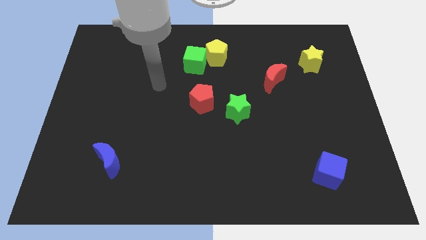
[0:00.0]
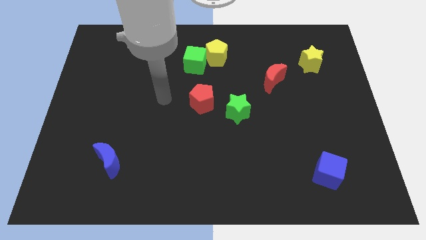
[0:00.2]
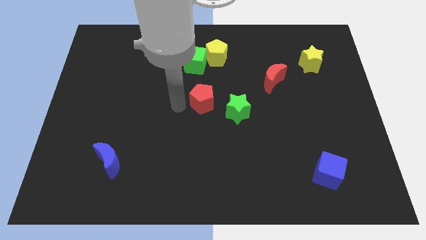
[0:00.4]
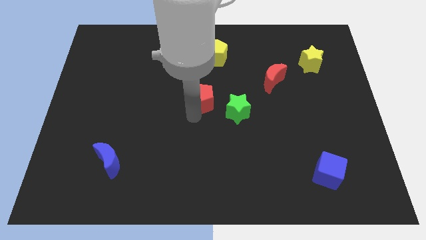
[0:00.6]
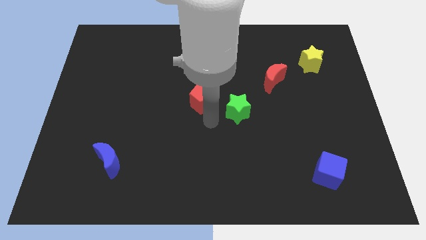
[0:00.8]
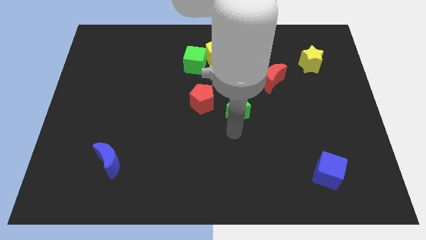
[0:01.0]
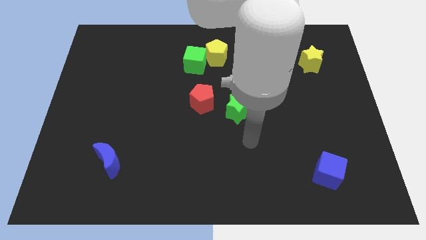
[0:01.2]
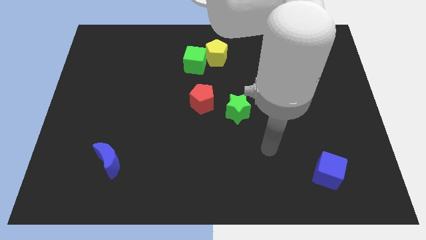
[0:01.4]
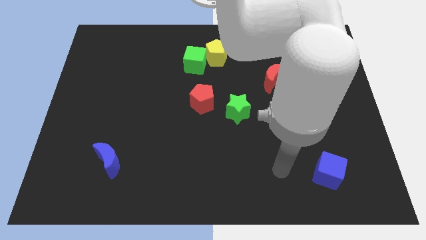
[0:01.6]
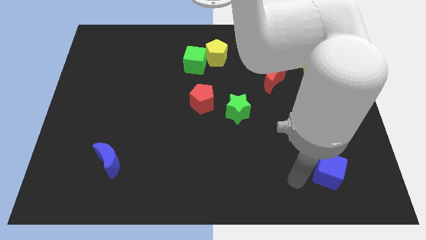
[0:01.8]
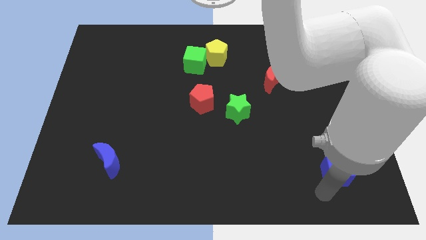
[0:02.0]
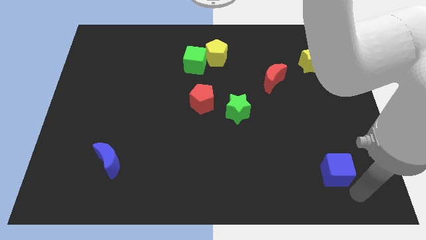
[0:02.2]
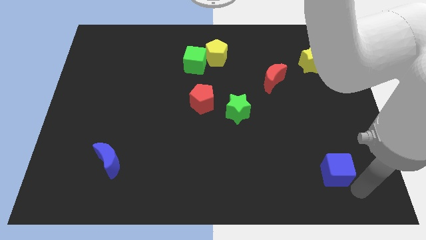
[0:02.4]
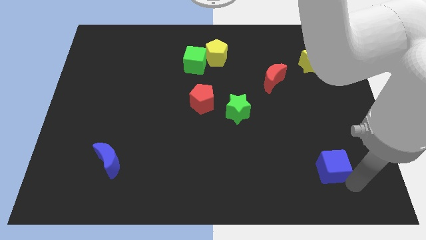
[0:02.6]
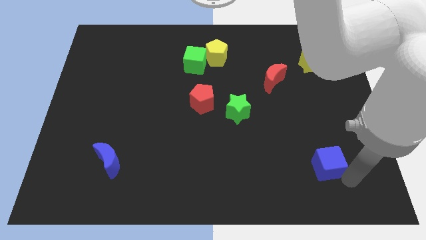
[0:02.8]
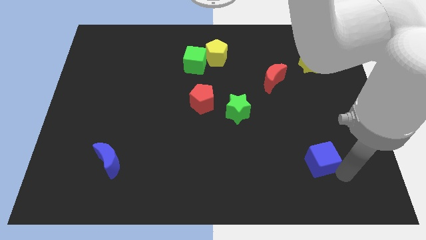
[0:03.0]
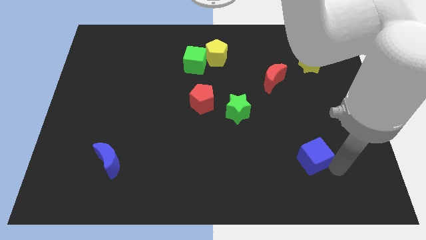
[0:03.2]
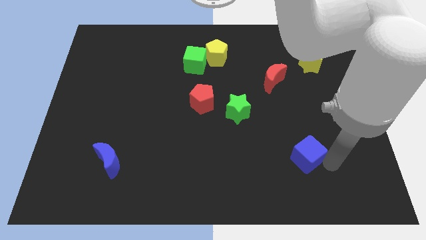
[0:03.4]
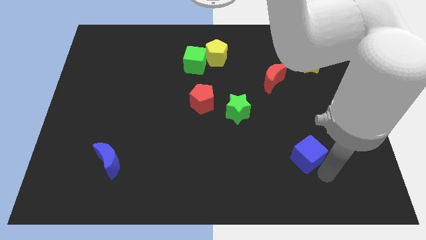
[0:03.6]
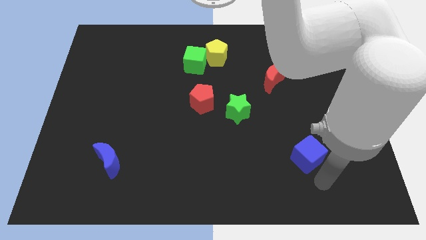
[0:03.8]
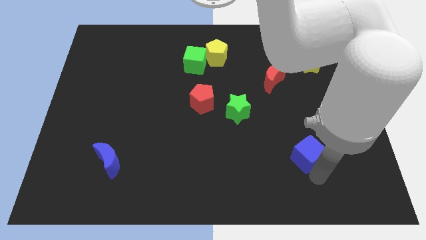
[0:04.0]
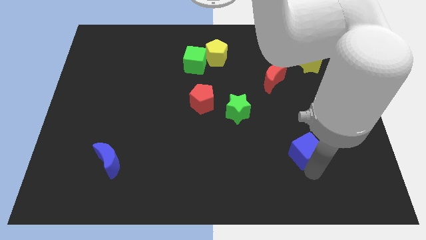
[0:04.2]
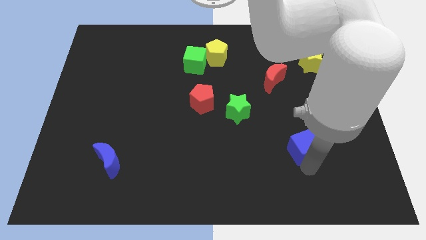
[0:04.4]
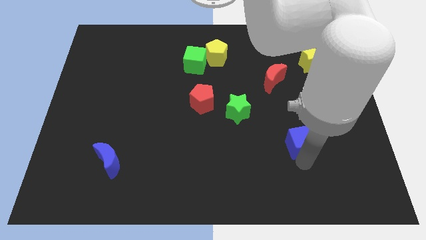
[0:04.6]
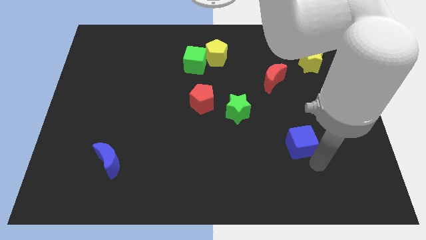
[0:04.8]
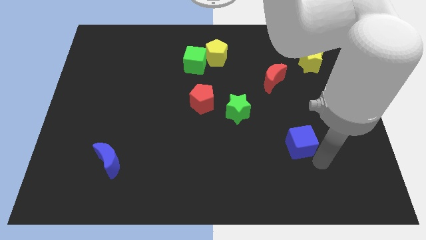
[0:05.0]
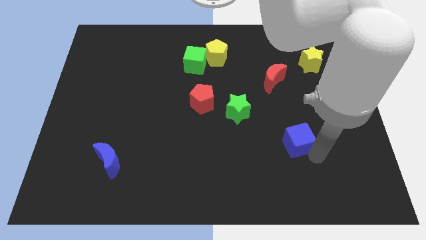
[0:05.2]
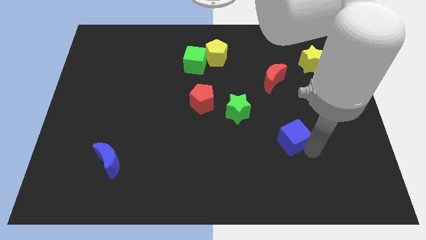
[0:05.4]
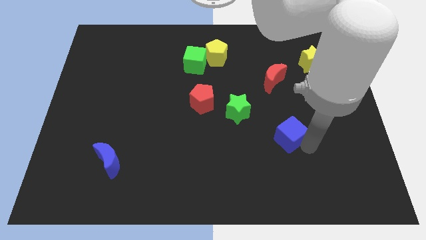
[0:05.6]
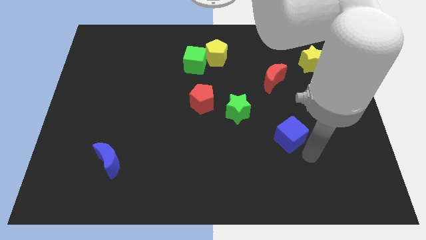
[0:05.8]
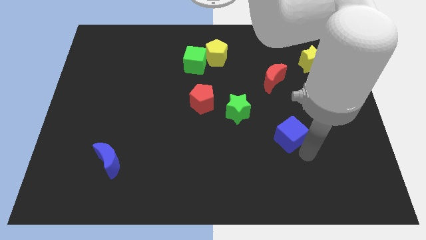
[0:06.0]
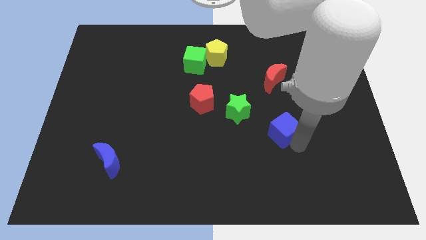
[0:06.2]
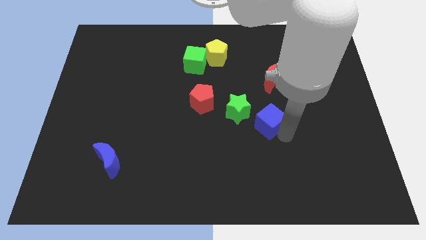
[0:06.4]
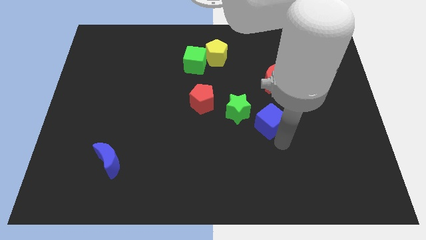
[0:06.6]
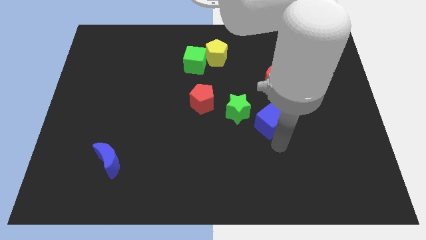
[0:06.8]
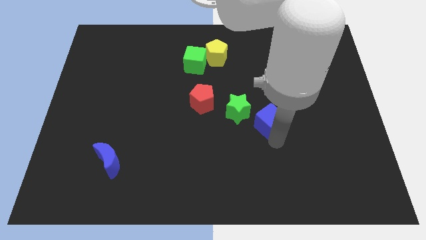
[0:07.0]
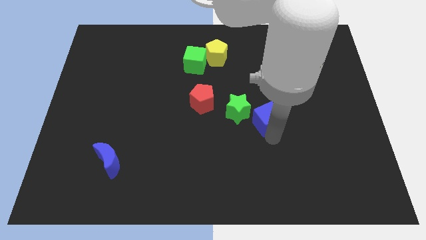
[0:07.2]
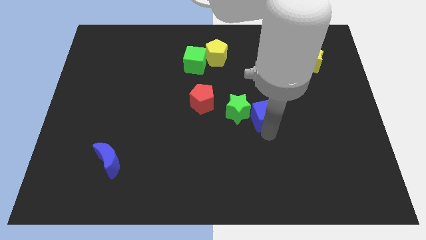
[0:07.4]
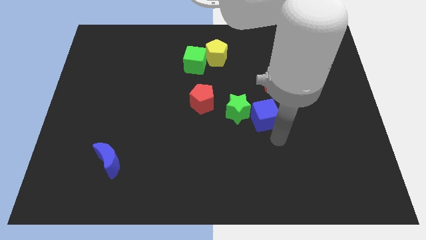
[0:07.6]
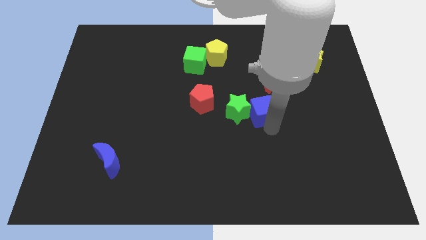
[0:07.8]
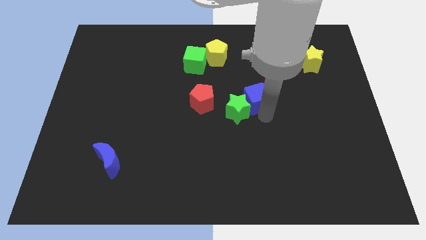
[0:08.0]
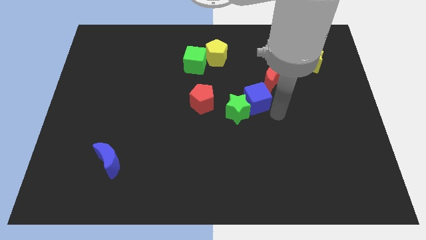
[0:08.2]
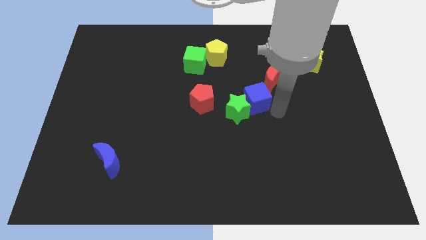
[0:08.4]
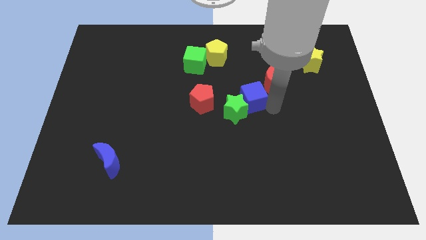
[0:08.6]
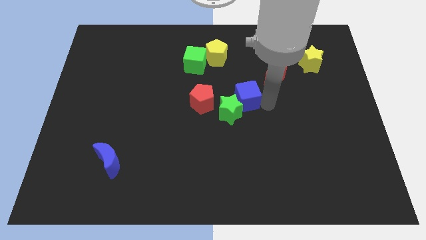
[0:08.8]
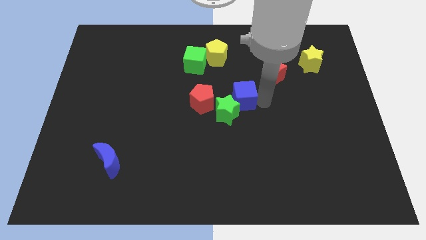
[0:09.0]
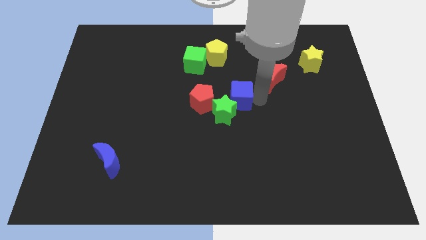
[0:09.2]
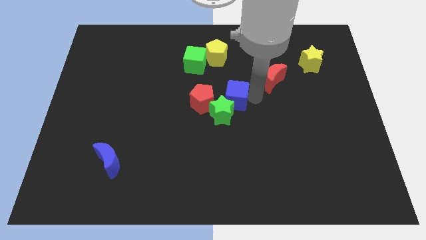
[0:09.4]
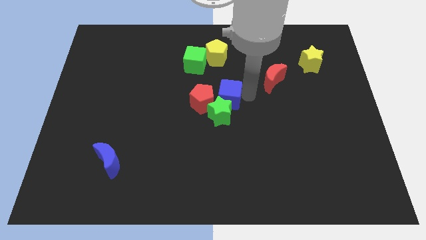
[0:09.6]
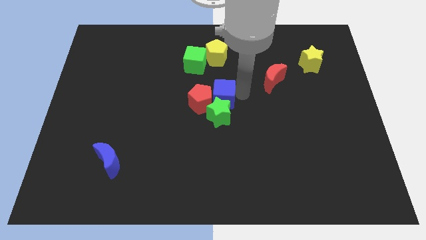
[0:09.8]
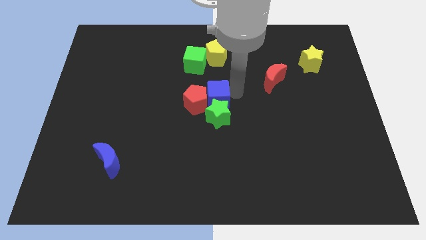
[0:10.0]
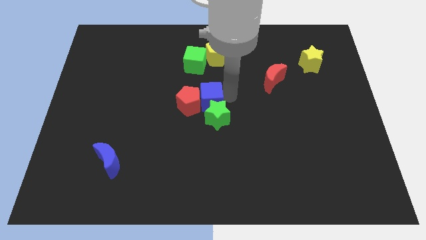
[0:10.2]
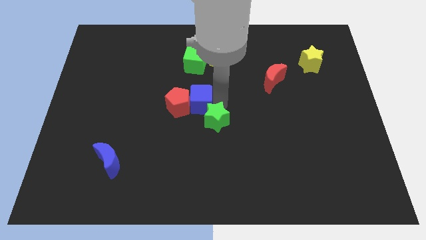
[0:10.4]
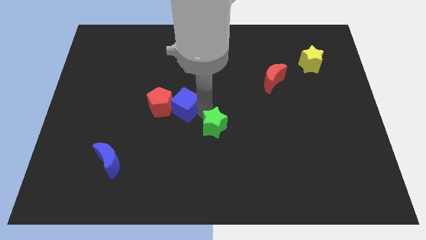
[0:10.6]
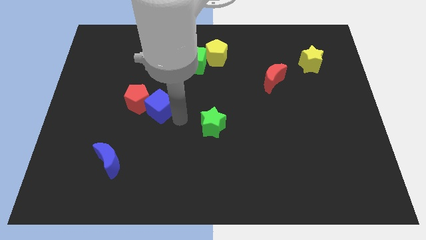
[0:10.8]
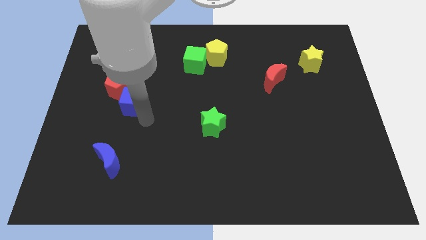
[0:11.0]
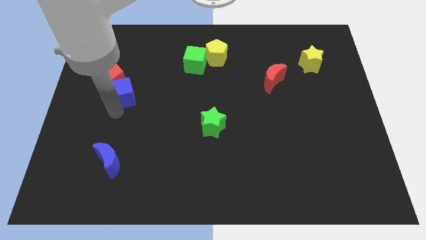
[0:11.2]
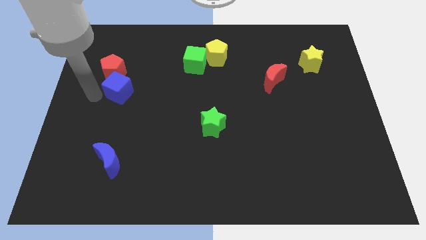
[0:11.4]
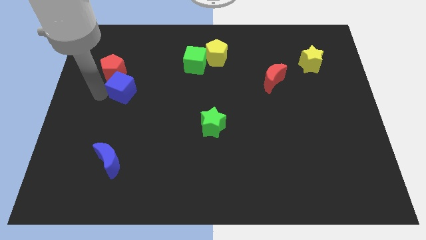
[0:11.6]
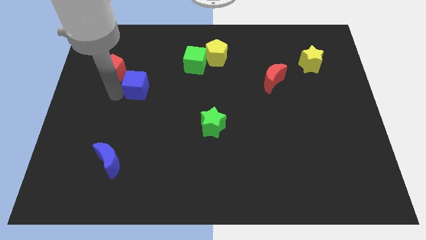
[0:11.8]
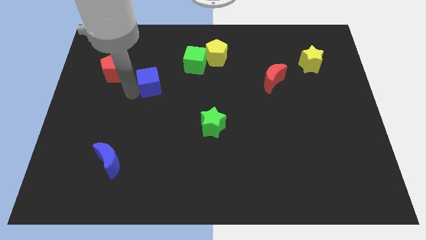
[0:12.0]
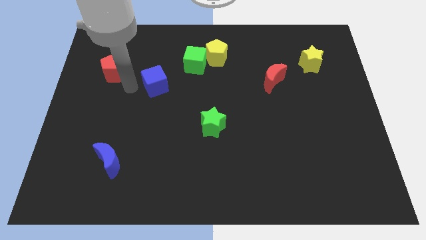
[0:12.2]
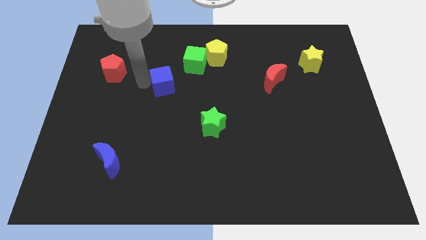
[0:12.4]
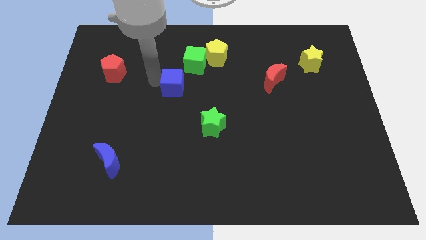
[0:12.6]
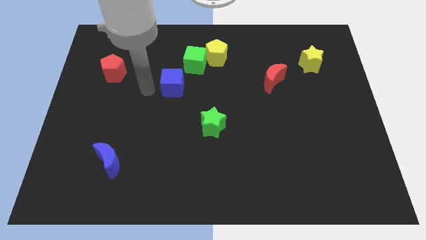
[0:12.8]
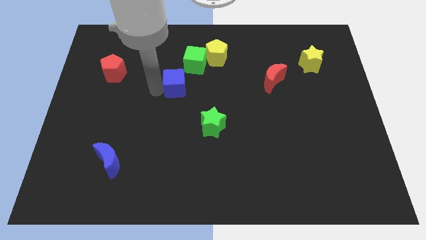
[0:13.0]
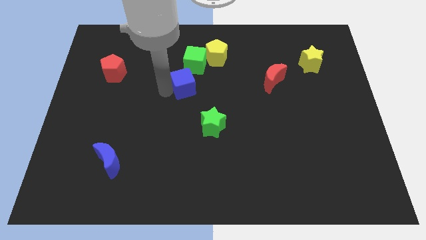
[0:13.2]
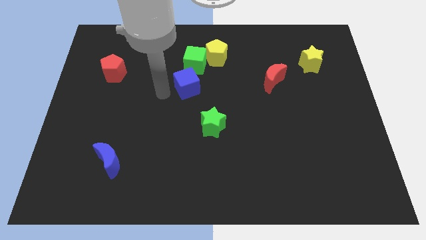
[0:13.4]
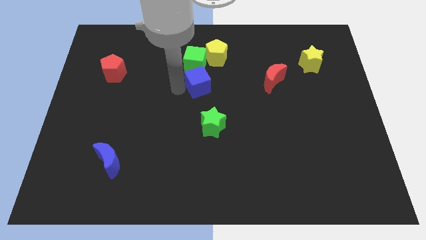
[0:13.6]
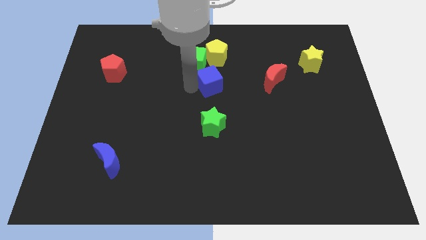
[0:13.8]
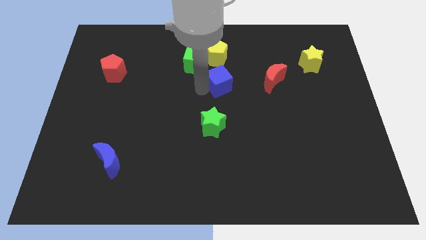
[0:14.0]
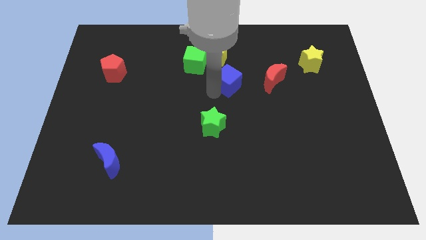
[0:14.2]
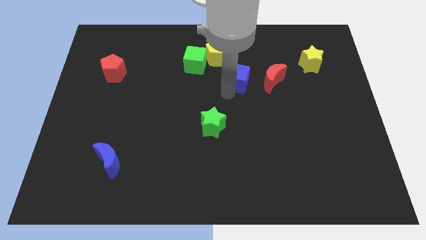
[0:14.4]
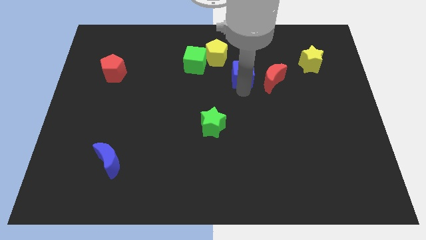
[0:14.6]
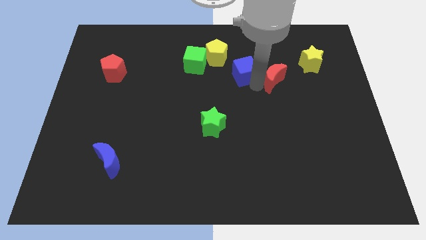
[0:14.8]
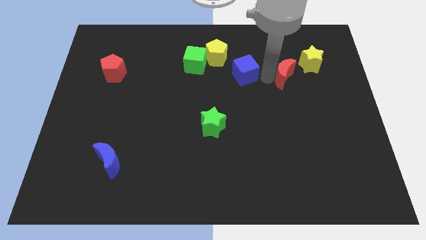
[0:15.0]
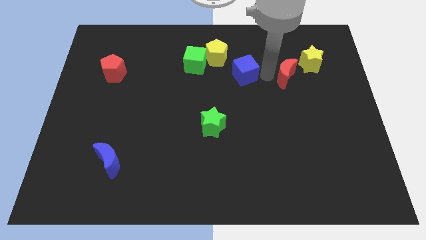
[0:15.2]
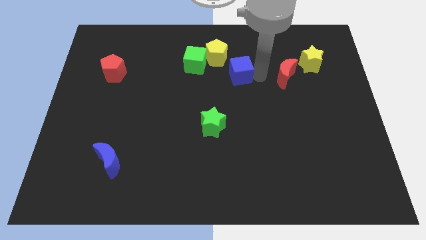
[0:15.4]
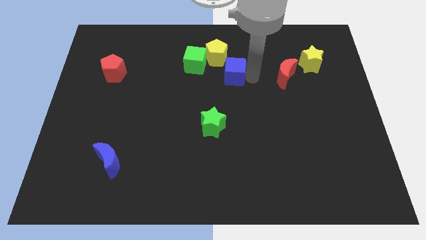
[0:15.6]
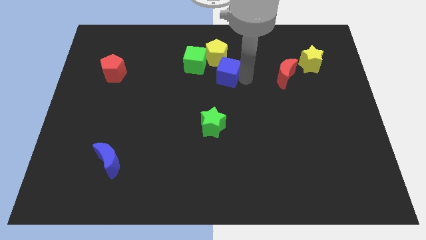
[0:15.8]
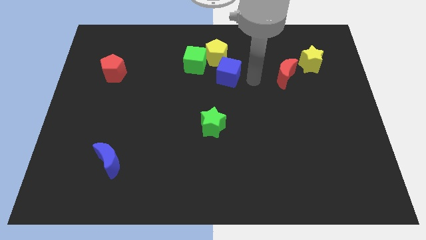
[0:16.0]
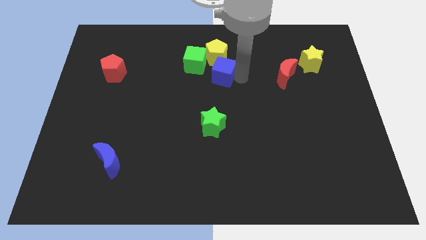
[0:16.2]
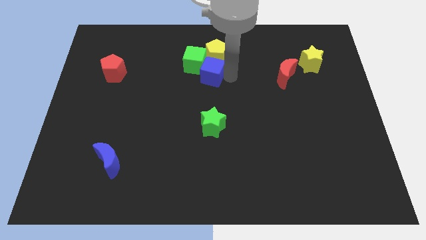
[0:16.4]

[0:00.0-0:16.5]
slide the blue cube to the green cube
